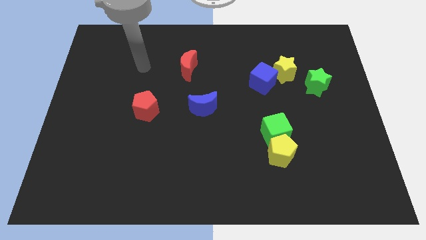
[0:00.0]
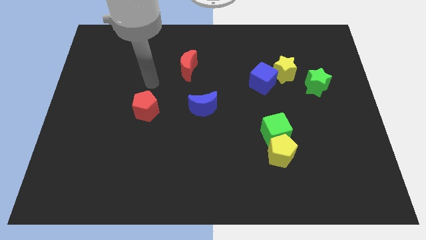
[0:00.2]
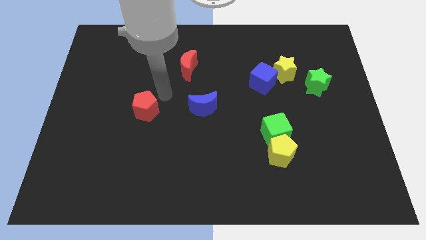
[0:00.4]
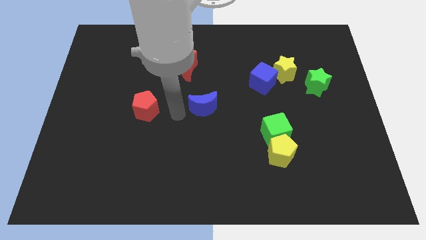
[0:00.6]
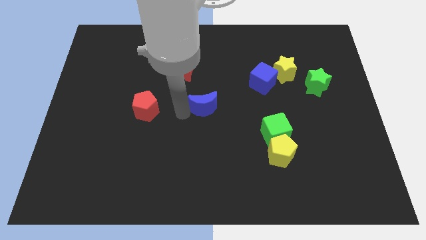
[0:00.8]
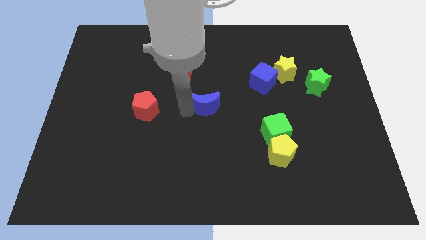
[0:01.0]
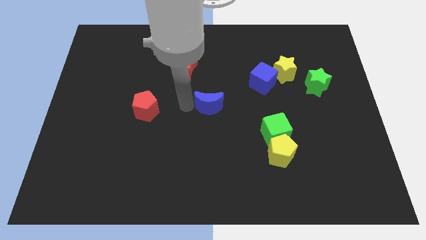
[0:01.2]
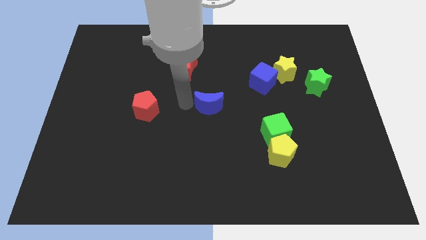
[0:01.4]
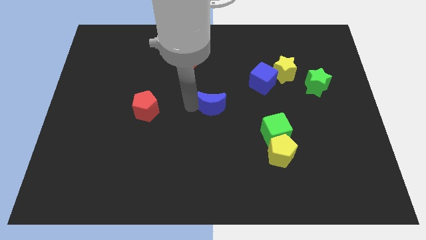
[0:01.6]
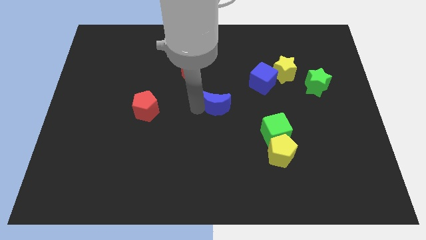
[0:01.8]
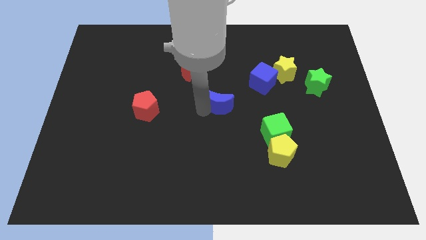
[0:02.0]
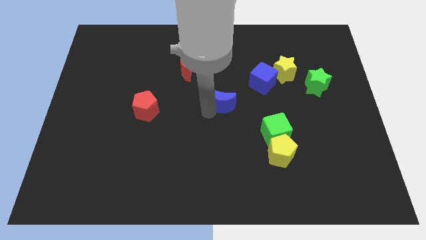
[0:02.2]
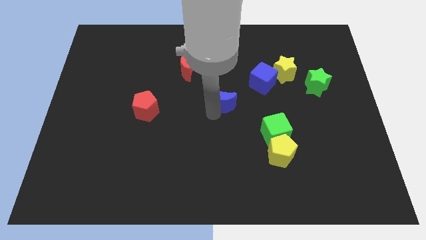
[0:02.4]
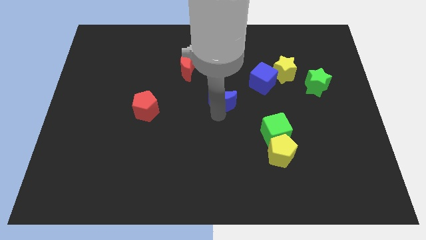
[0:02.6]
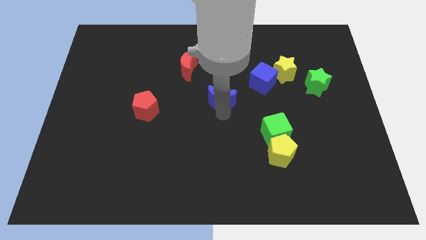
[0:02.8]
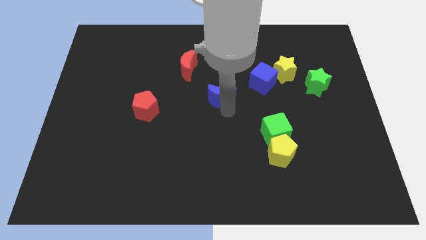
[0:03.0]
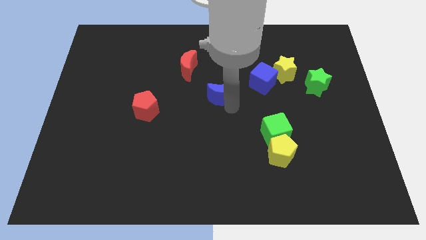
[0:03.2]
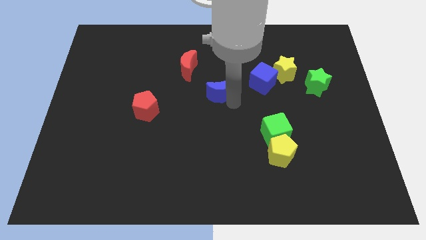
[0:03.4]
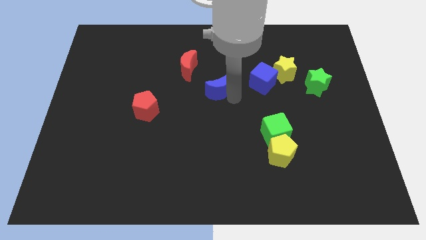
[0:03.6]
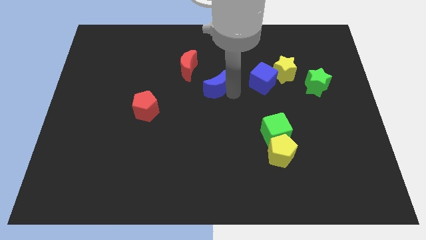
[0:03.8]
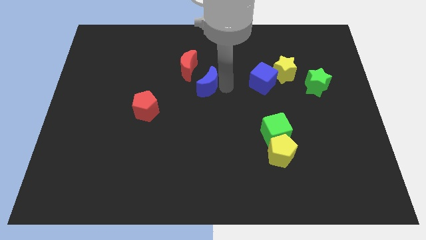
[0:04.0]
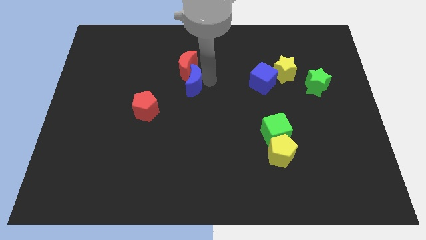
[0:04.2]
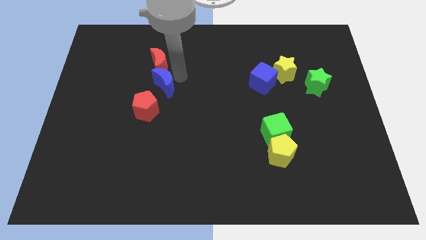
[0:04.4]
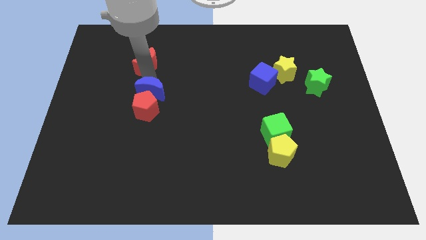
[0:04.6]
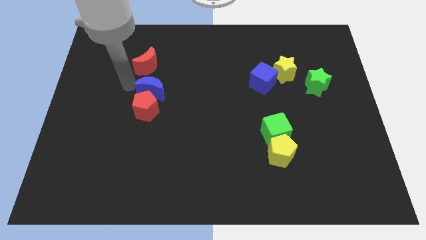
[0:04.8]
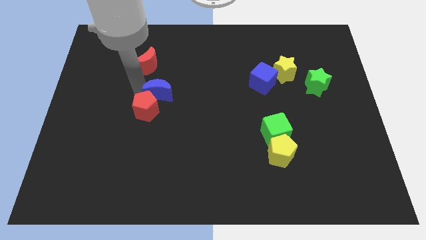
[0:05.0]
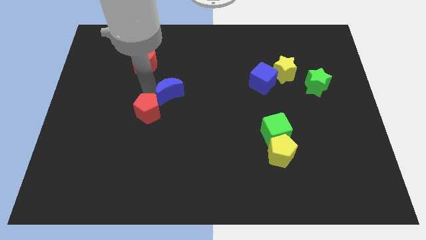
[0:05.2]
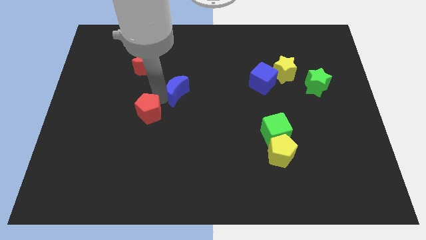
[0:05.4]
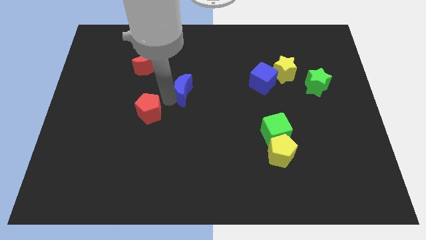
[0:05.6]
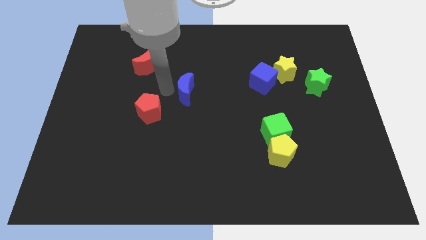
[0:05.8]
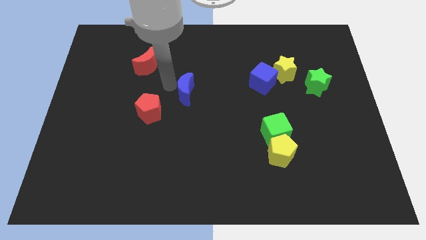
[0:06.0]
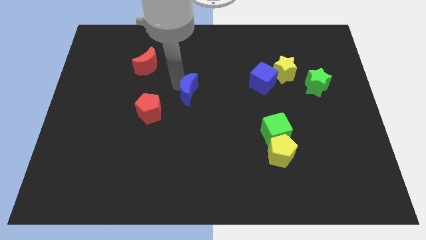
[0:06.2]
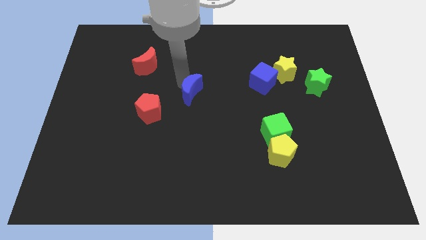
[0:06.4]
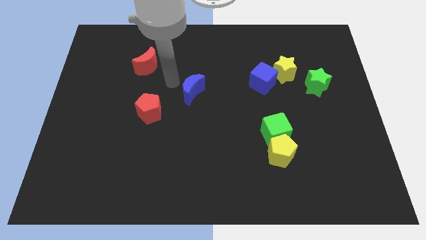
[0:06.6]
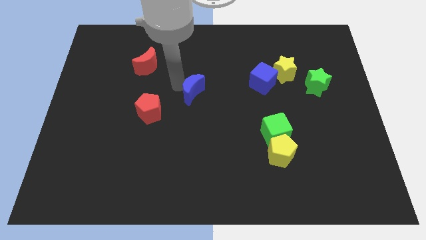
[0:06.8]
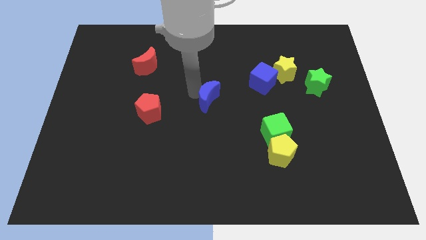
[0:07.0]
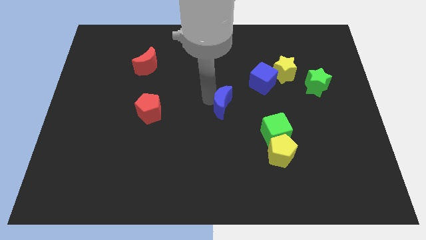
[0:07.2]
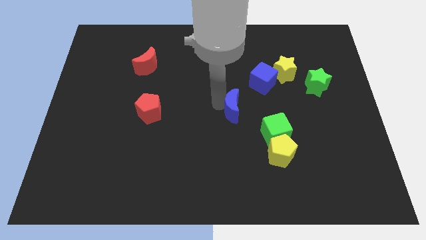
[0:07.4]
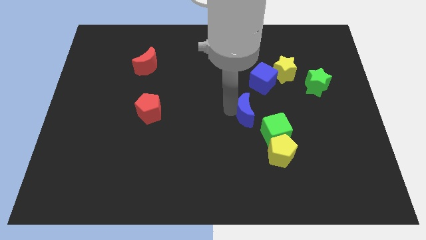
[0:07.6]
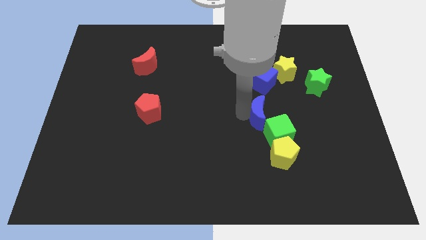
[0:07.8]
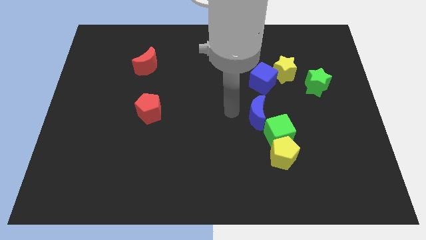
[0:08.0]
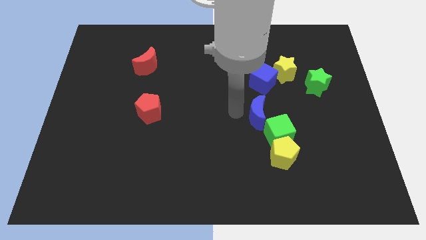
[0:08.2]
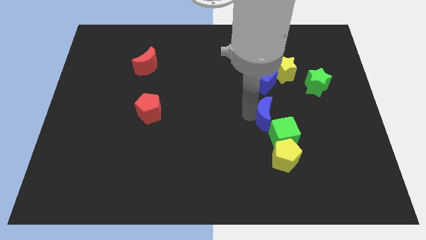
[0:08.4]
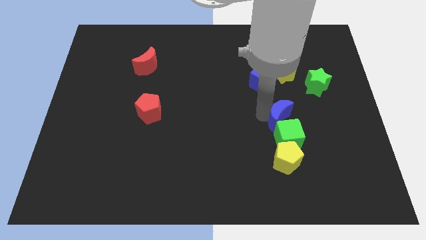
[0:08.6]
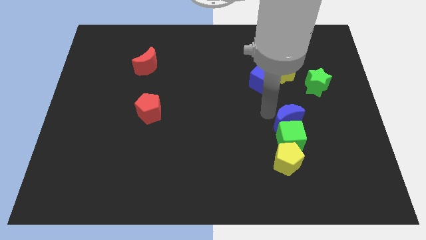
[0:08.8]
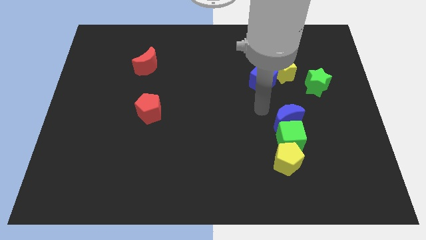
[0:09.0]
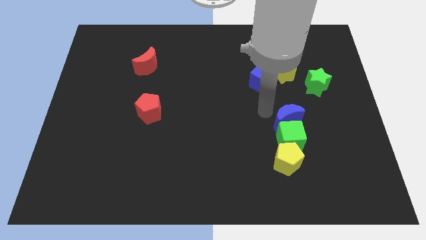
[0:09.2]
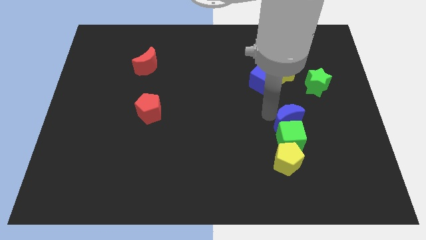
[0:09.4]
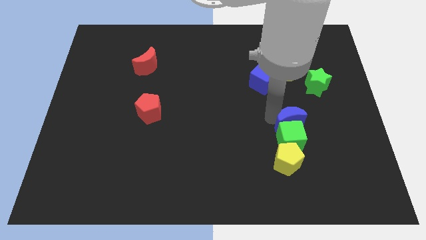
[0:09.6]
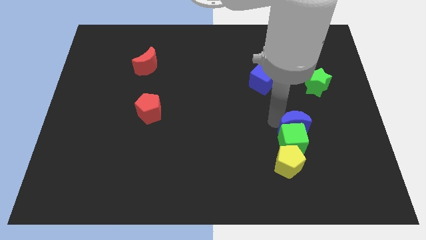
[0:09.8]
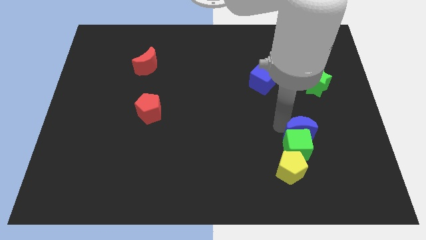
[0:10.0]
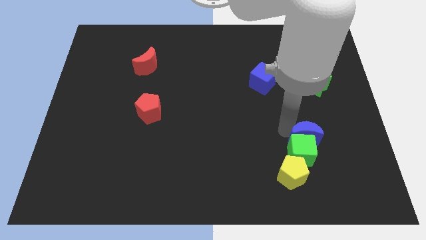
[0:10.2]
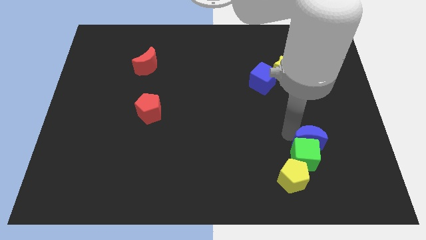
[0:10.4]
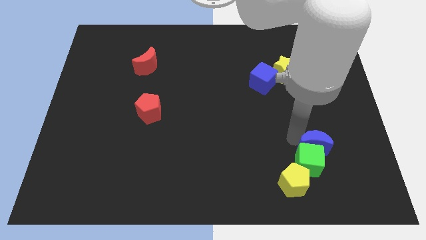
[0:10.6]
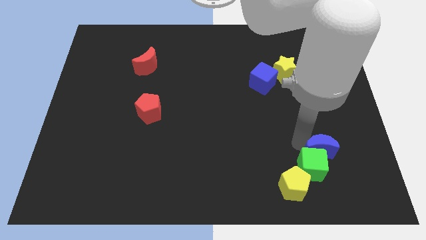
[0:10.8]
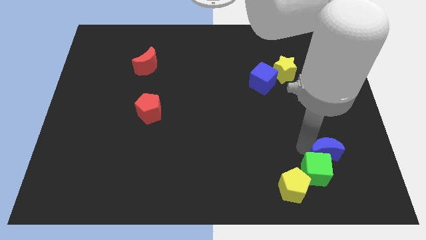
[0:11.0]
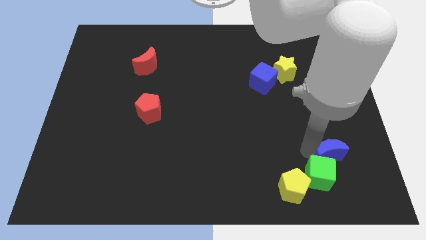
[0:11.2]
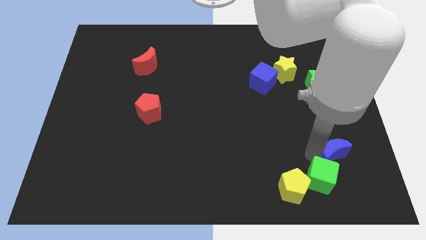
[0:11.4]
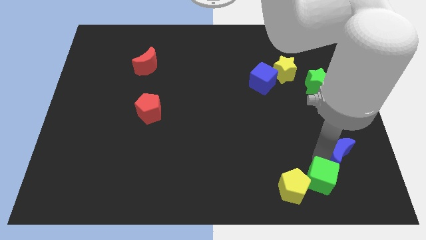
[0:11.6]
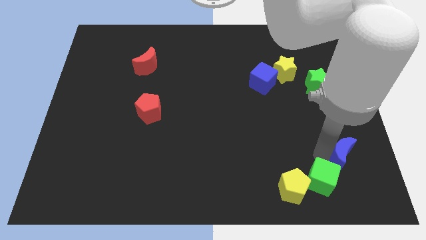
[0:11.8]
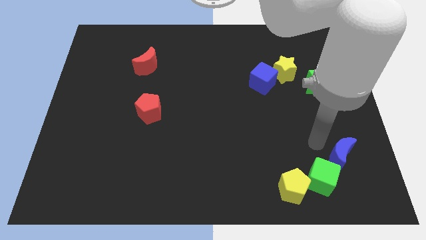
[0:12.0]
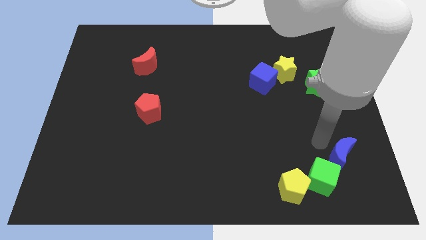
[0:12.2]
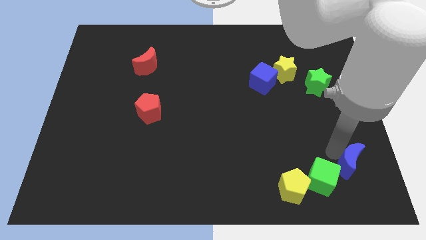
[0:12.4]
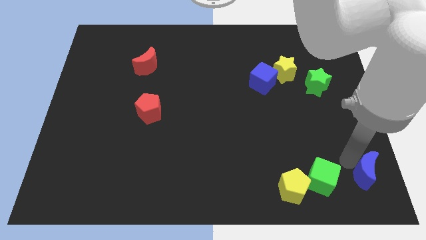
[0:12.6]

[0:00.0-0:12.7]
push the blue moon to the bottom right

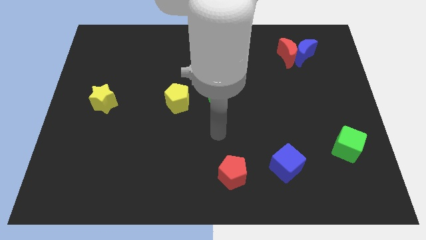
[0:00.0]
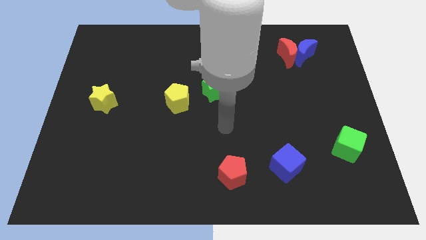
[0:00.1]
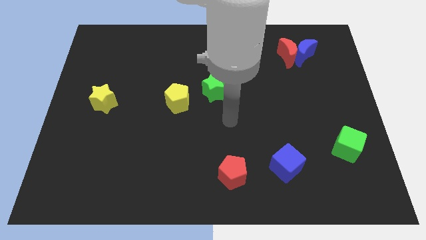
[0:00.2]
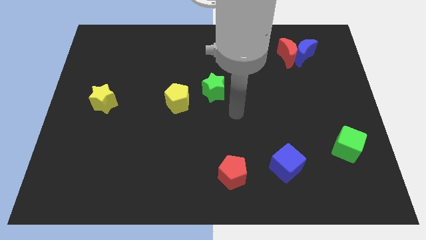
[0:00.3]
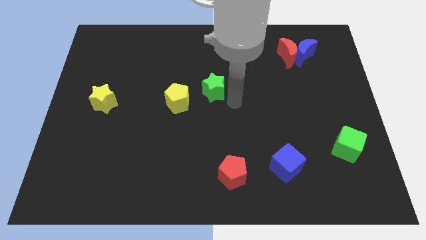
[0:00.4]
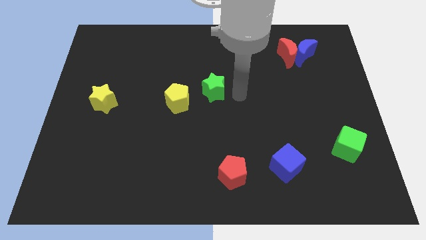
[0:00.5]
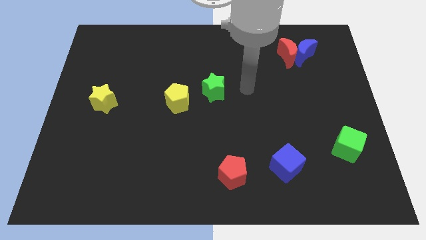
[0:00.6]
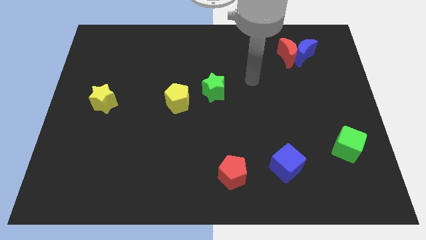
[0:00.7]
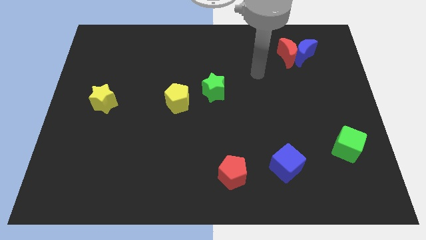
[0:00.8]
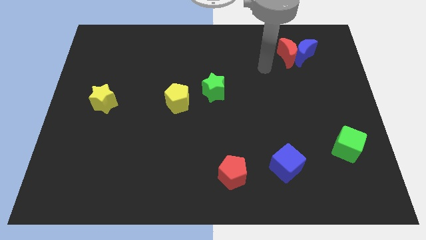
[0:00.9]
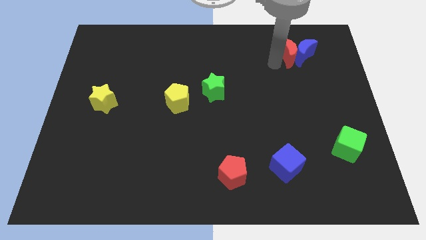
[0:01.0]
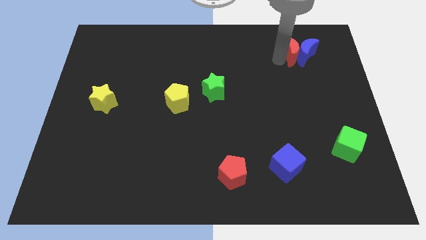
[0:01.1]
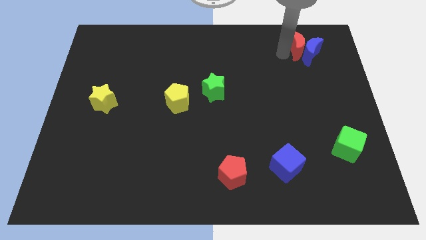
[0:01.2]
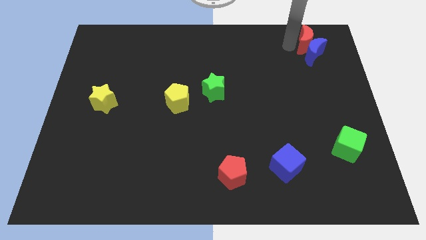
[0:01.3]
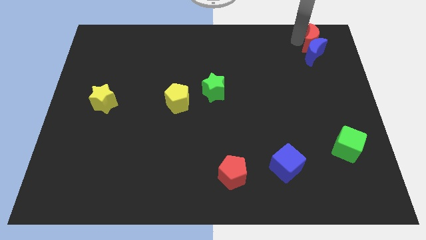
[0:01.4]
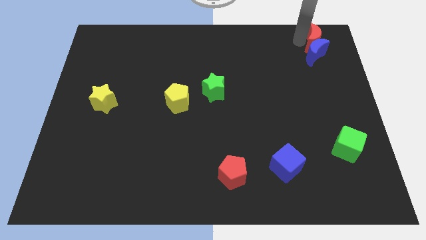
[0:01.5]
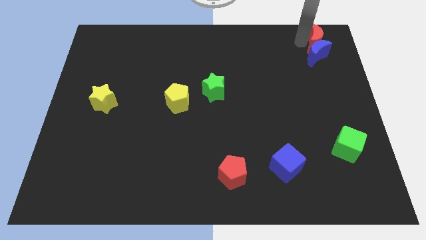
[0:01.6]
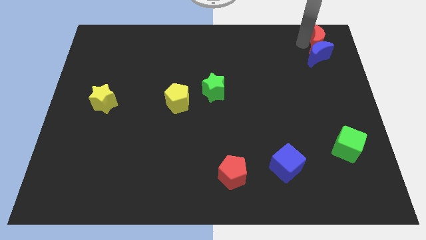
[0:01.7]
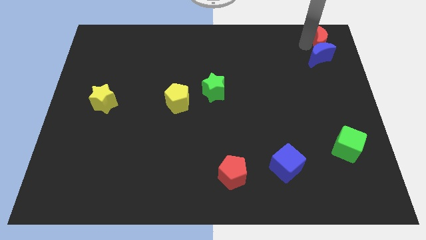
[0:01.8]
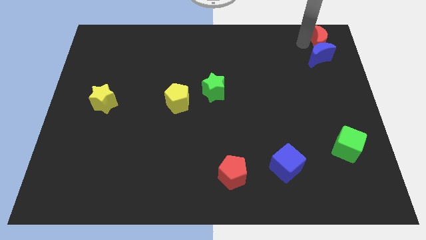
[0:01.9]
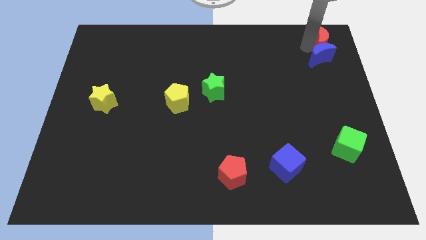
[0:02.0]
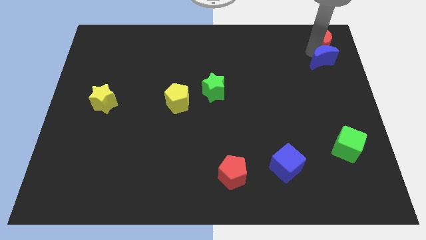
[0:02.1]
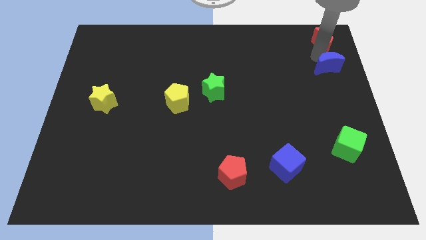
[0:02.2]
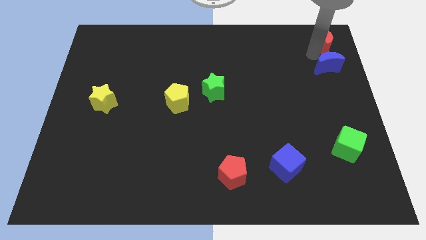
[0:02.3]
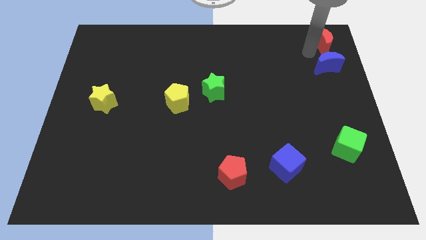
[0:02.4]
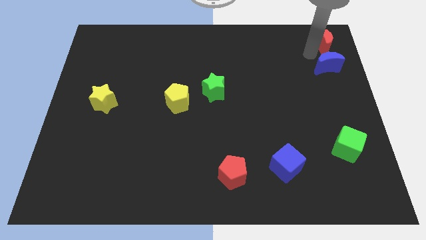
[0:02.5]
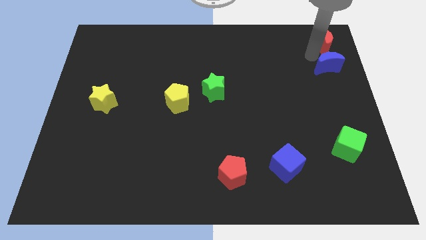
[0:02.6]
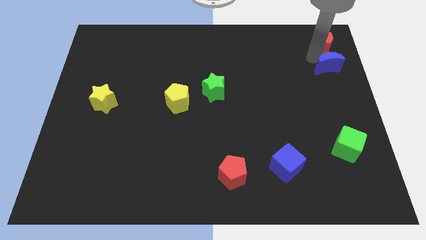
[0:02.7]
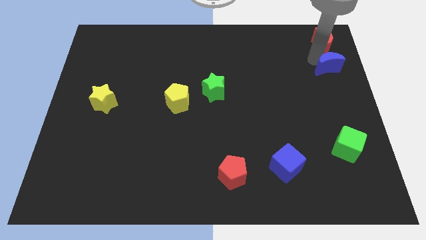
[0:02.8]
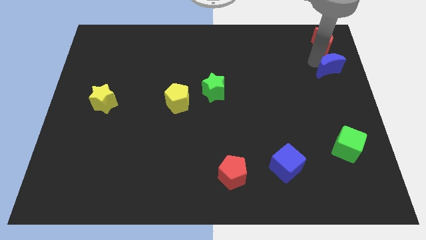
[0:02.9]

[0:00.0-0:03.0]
move the blue moon to the center right
